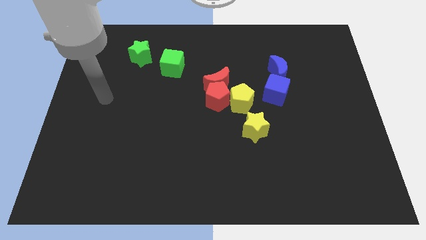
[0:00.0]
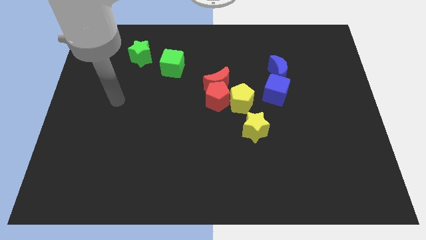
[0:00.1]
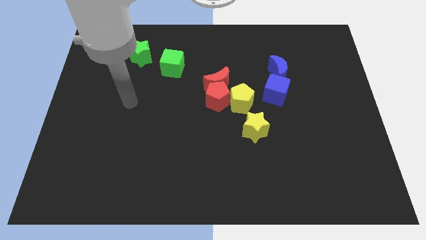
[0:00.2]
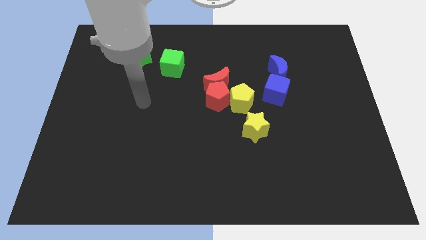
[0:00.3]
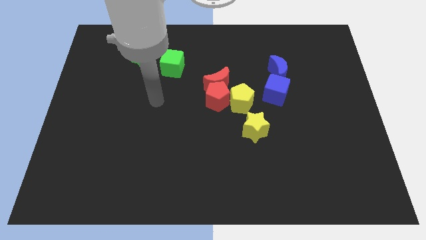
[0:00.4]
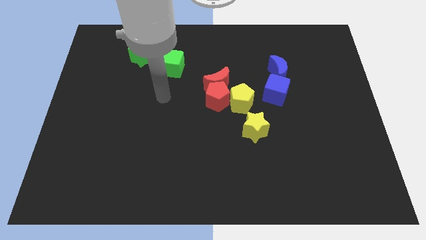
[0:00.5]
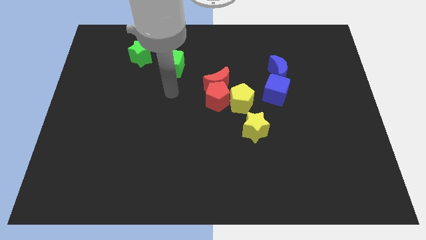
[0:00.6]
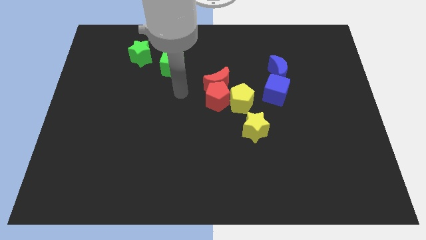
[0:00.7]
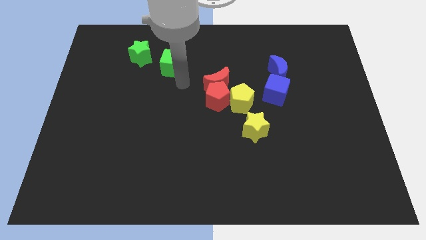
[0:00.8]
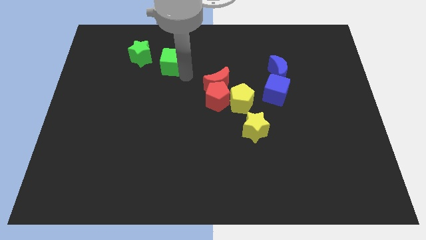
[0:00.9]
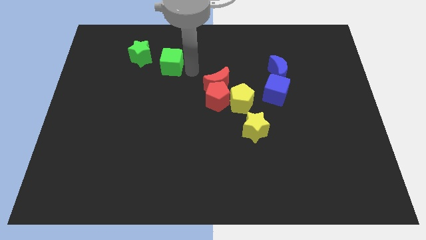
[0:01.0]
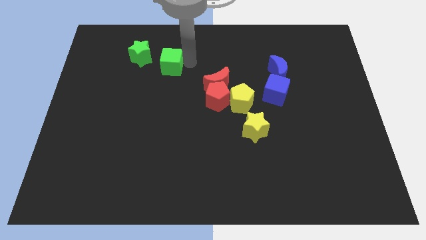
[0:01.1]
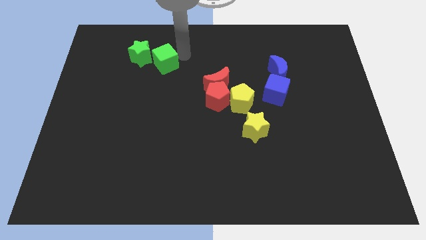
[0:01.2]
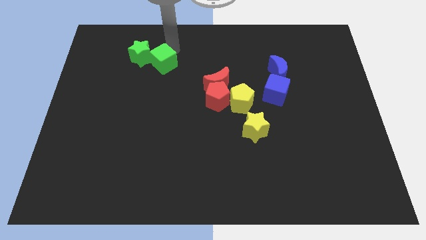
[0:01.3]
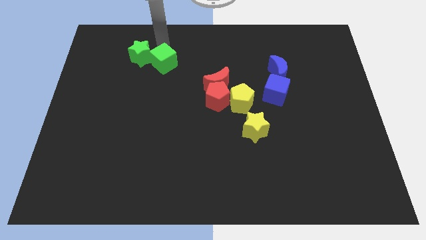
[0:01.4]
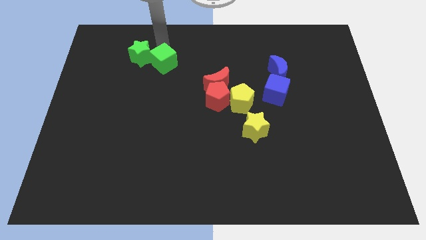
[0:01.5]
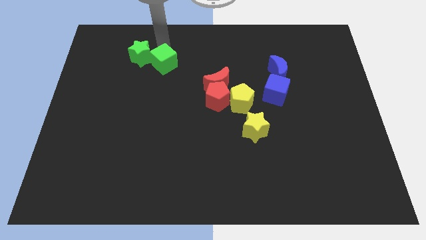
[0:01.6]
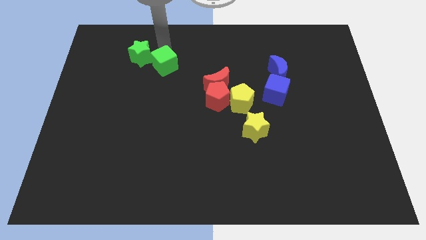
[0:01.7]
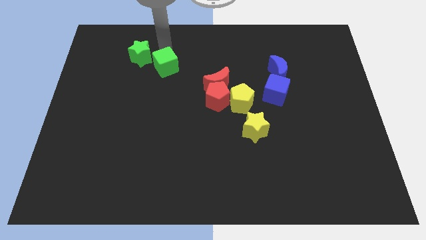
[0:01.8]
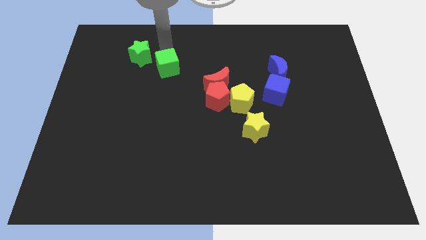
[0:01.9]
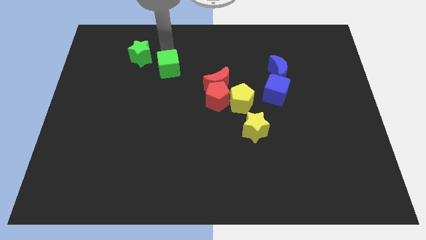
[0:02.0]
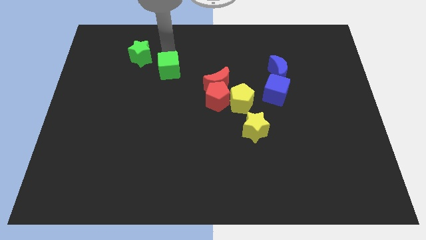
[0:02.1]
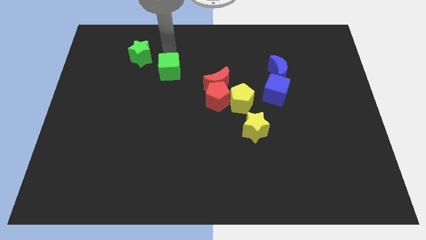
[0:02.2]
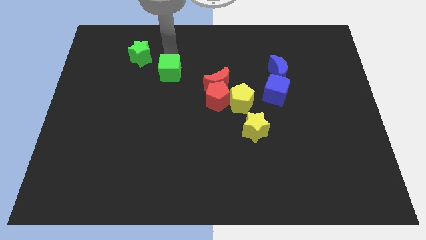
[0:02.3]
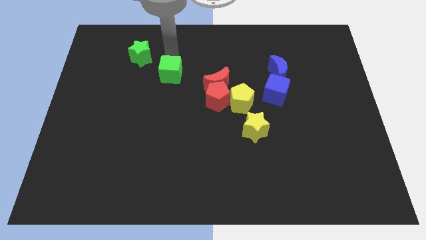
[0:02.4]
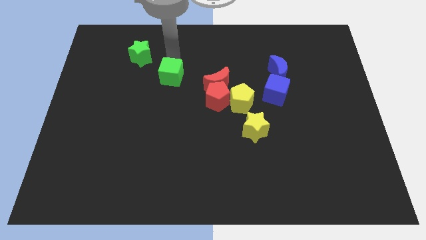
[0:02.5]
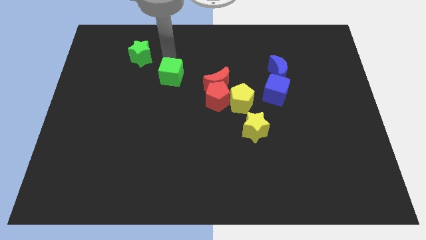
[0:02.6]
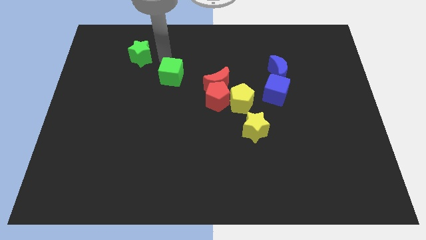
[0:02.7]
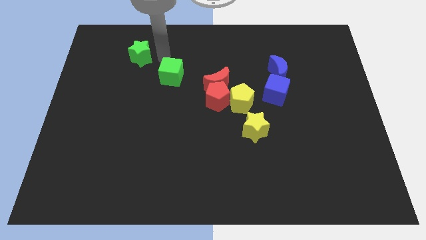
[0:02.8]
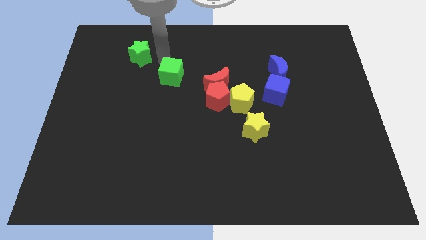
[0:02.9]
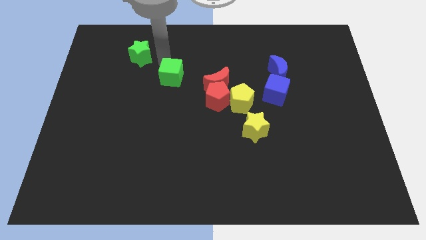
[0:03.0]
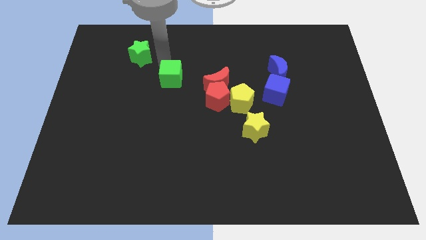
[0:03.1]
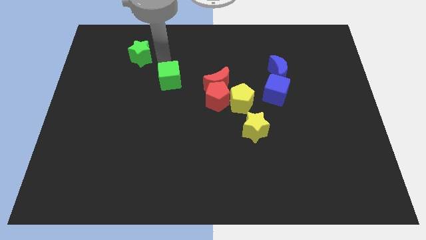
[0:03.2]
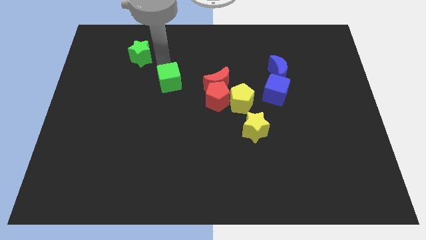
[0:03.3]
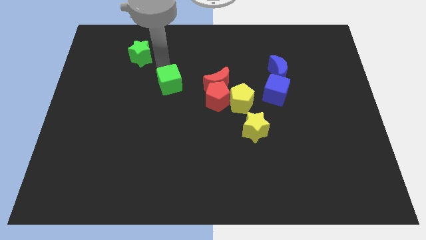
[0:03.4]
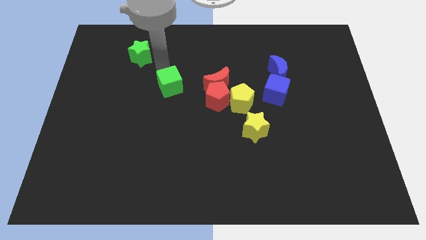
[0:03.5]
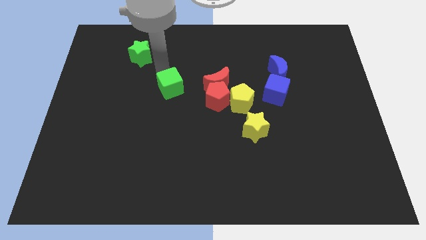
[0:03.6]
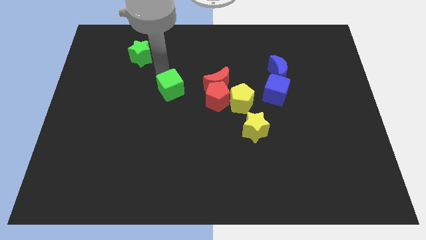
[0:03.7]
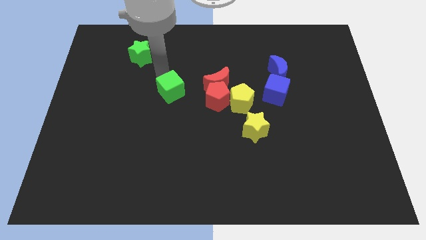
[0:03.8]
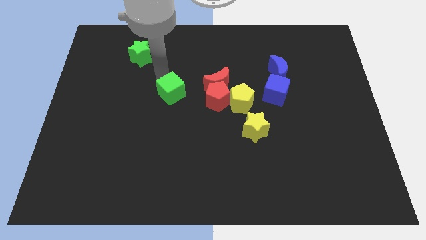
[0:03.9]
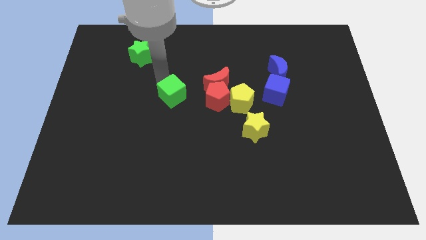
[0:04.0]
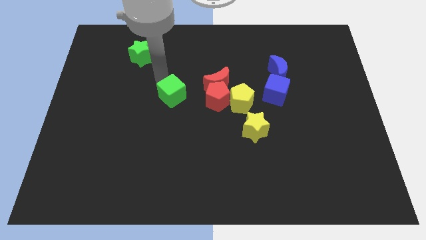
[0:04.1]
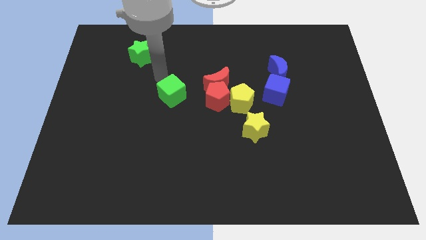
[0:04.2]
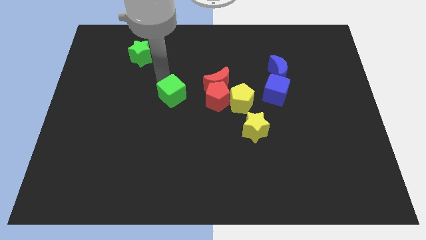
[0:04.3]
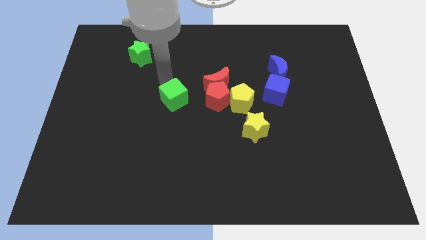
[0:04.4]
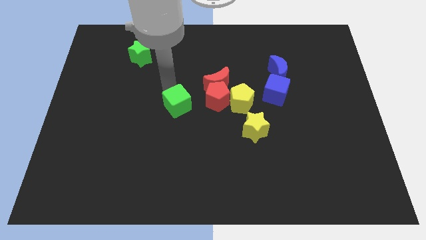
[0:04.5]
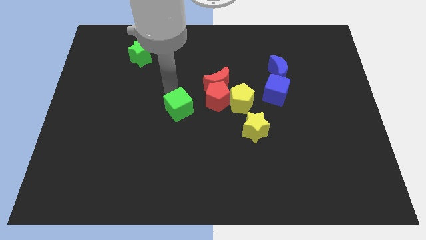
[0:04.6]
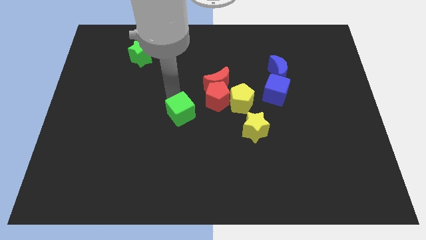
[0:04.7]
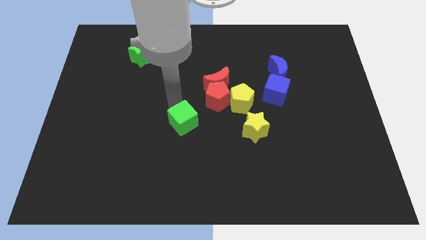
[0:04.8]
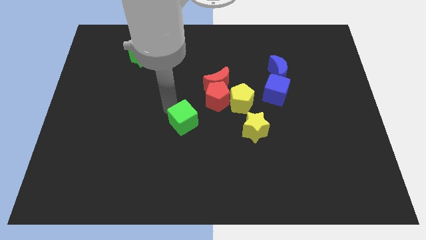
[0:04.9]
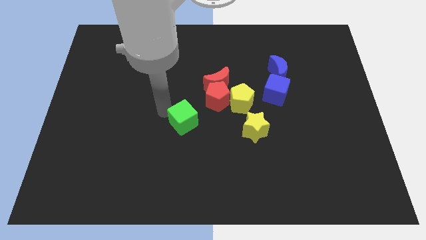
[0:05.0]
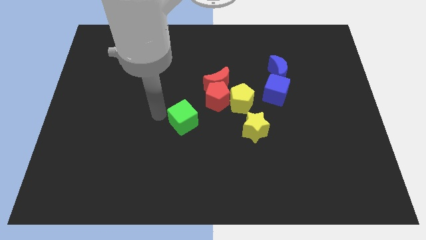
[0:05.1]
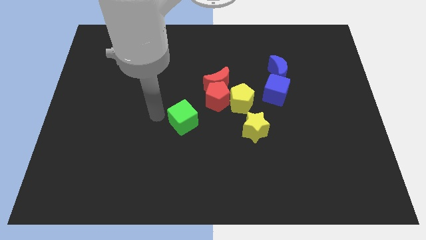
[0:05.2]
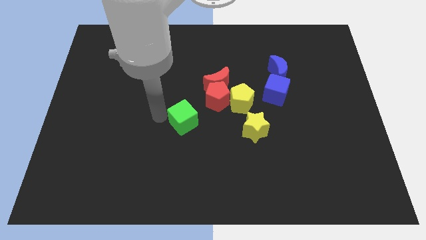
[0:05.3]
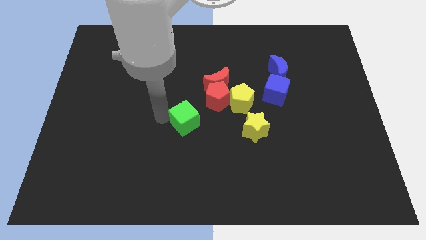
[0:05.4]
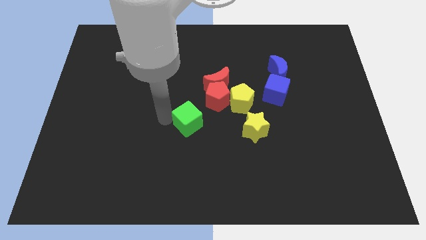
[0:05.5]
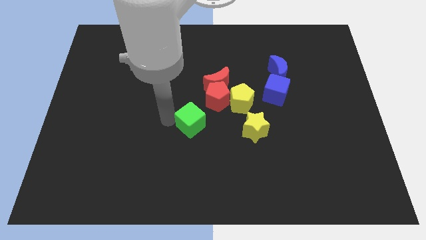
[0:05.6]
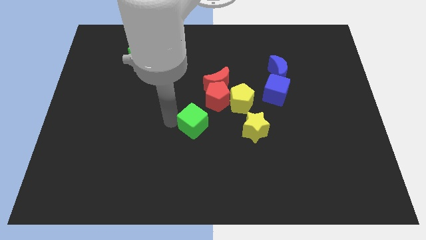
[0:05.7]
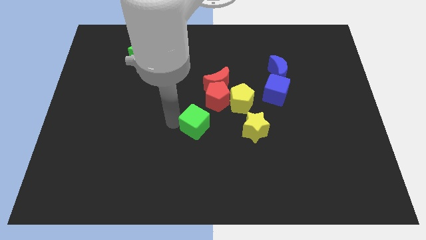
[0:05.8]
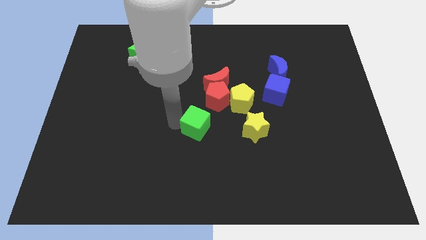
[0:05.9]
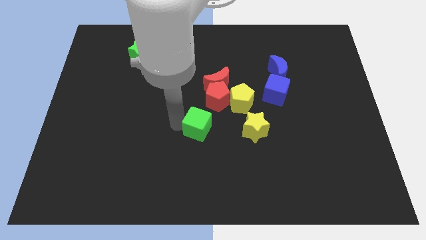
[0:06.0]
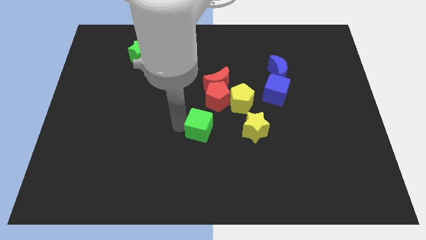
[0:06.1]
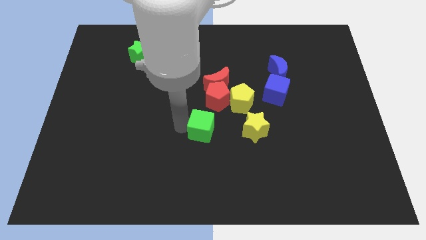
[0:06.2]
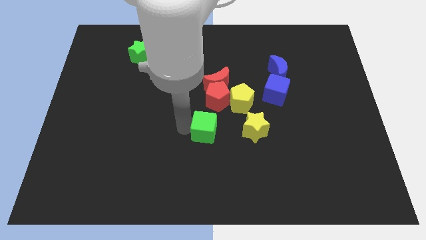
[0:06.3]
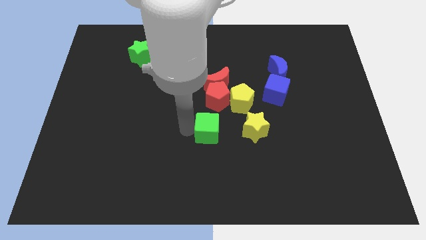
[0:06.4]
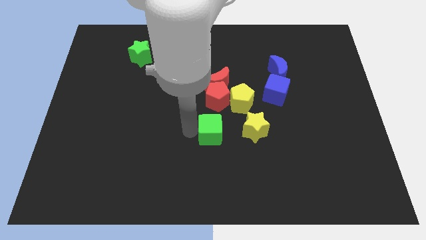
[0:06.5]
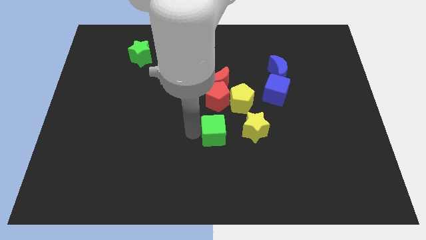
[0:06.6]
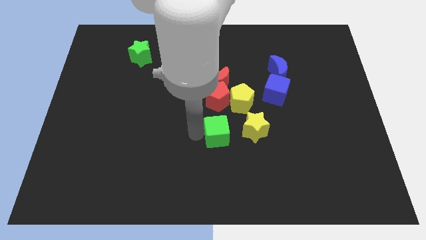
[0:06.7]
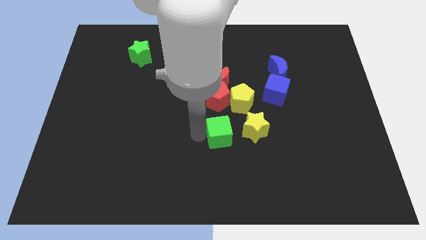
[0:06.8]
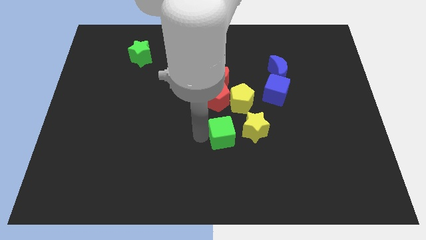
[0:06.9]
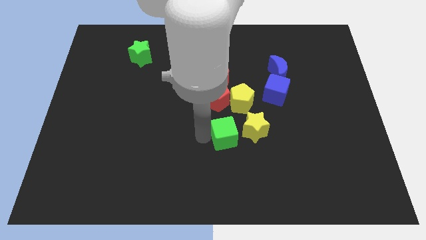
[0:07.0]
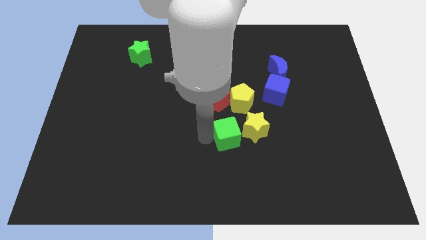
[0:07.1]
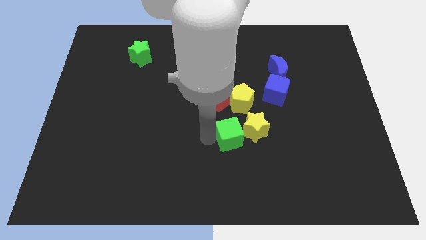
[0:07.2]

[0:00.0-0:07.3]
put the green cube towards the yellow star
